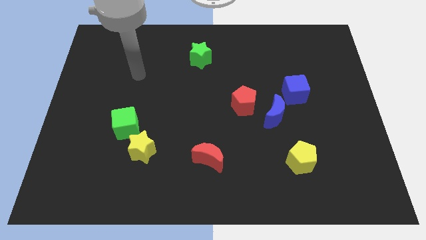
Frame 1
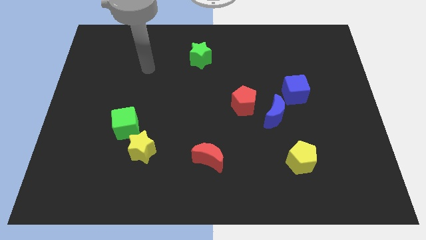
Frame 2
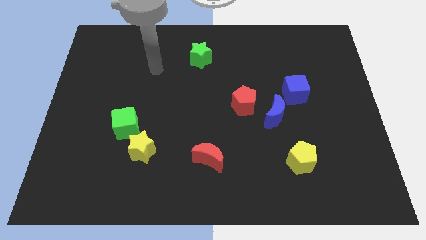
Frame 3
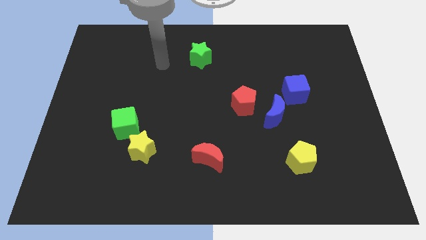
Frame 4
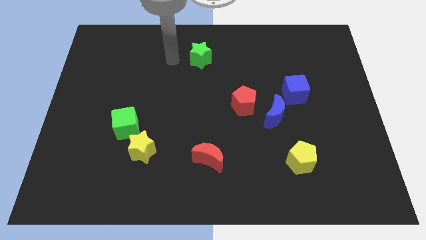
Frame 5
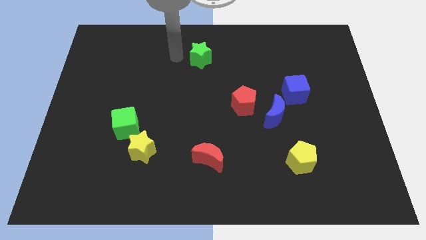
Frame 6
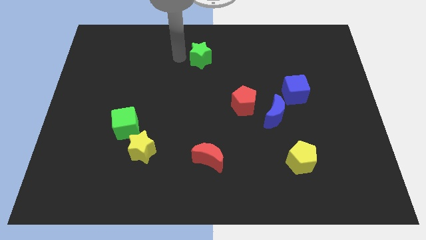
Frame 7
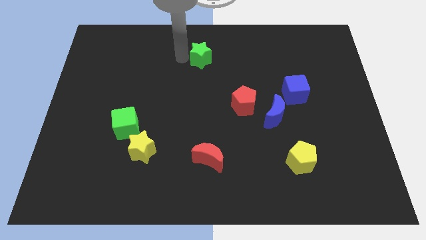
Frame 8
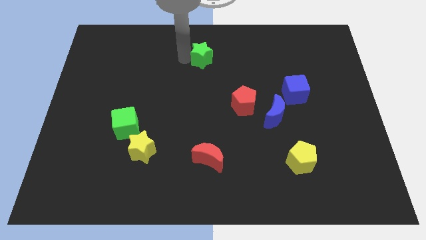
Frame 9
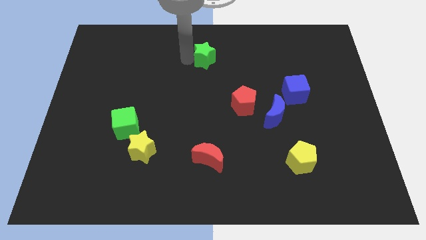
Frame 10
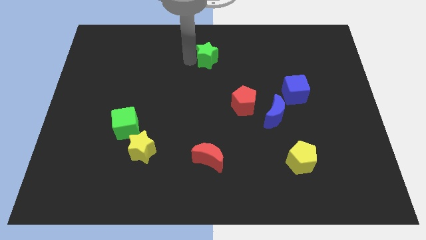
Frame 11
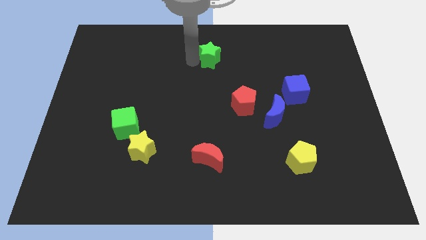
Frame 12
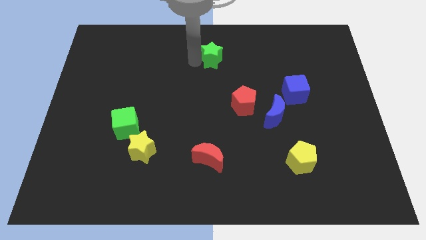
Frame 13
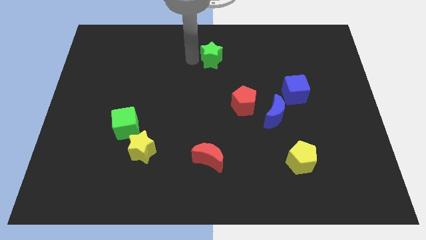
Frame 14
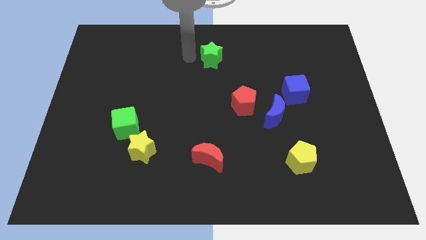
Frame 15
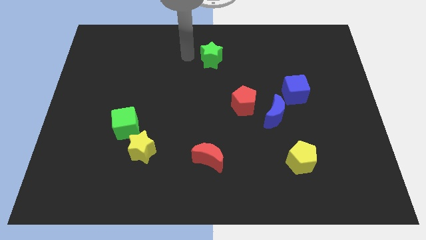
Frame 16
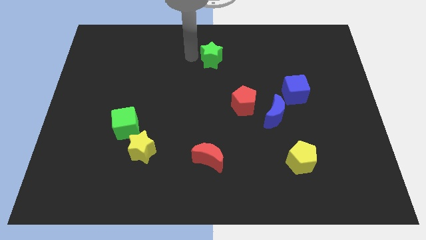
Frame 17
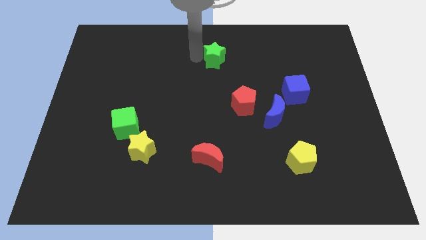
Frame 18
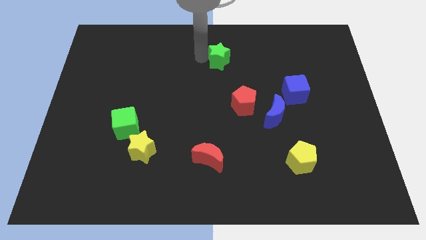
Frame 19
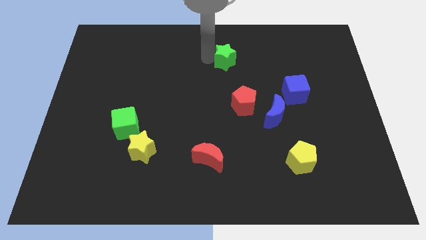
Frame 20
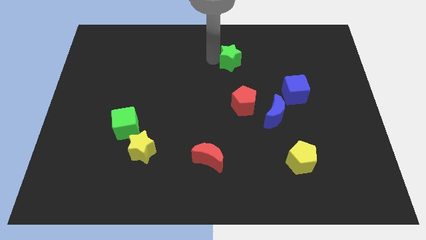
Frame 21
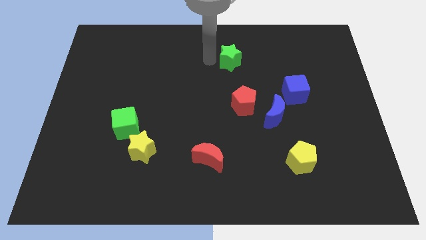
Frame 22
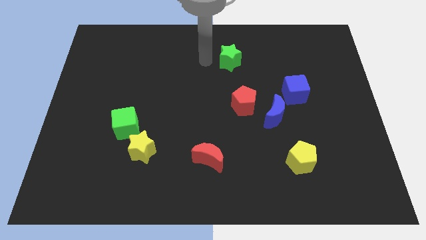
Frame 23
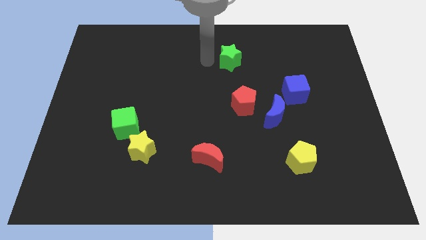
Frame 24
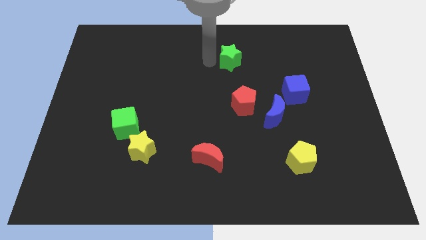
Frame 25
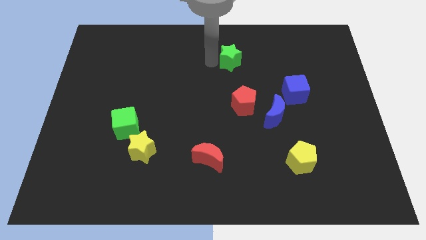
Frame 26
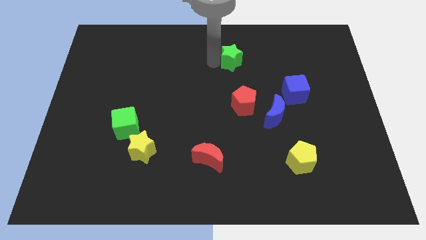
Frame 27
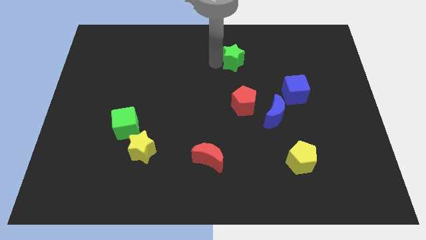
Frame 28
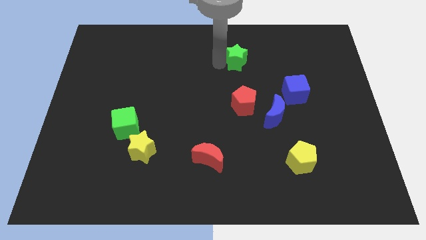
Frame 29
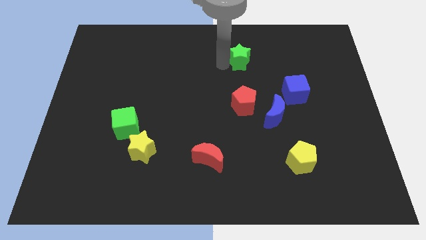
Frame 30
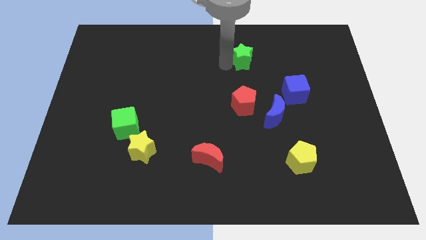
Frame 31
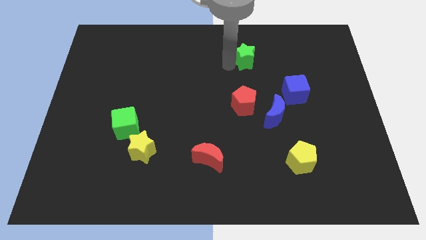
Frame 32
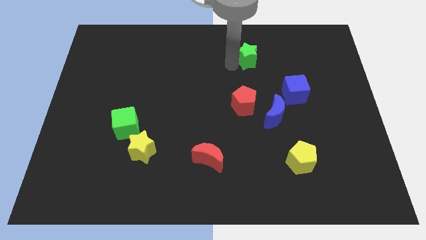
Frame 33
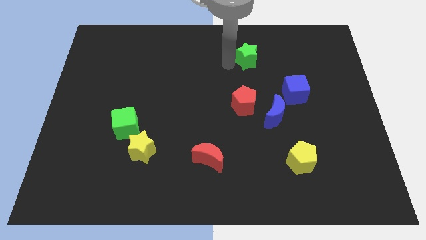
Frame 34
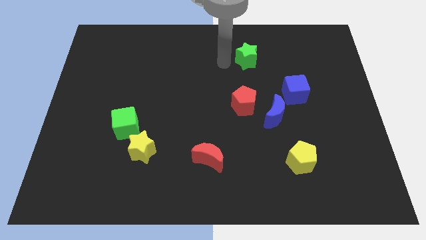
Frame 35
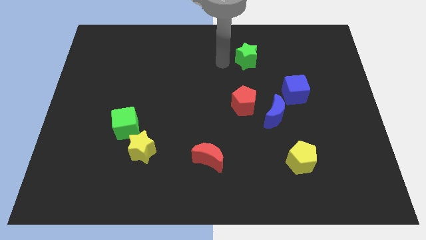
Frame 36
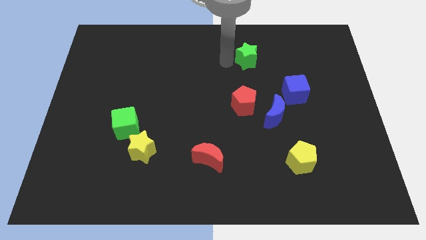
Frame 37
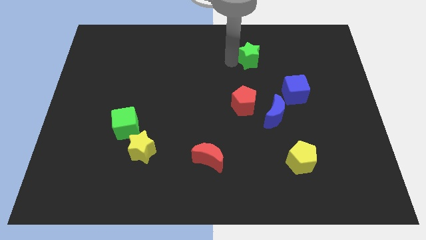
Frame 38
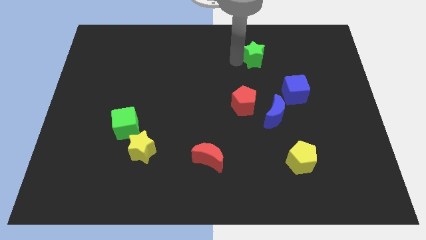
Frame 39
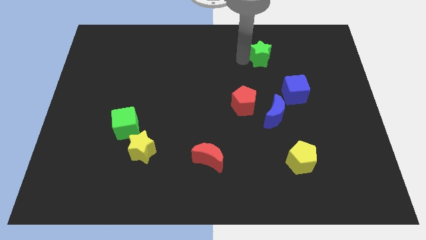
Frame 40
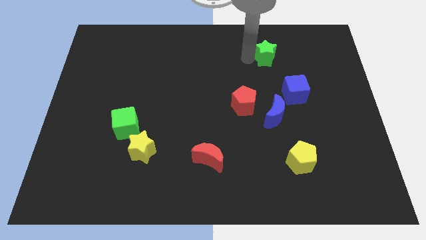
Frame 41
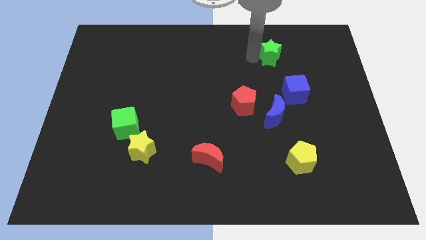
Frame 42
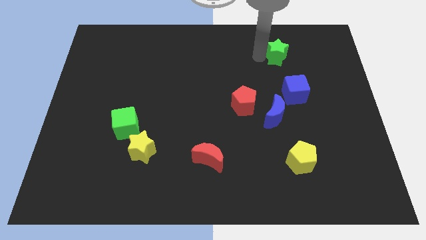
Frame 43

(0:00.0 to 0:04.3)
slide the green star right

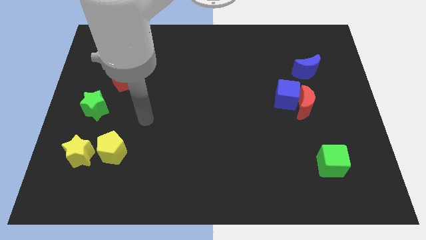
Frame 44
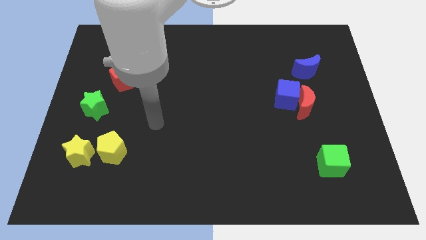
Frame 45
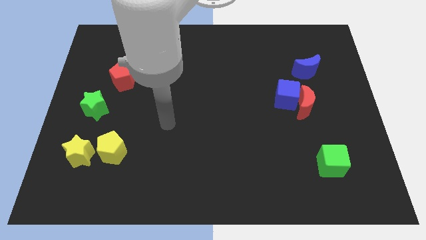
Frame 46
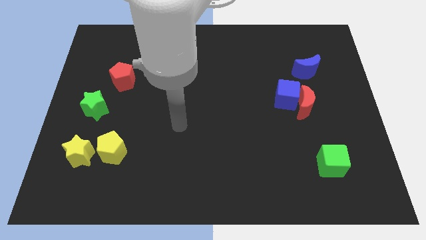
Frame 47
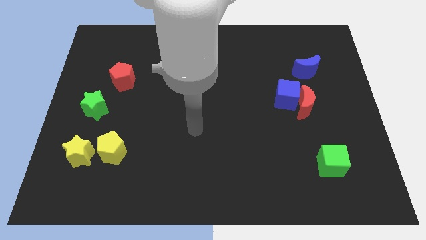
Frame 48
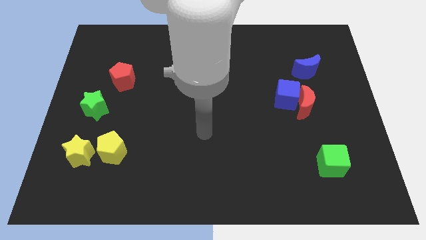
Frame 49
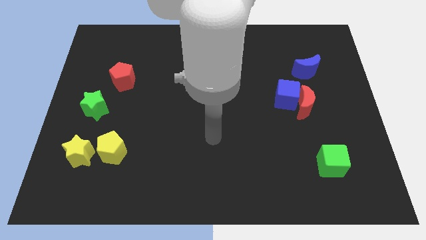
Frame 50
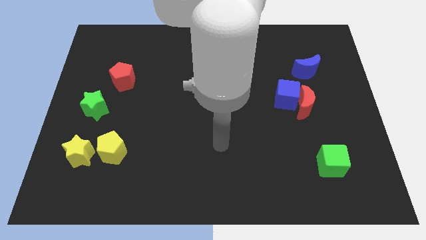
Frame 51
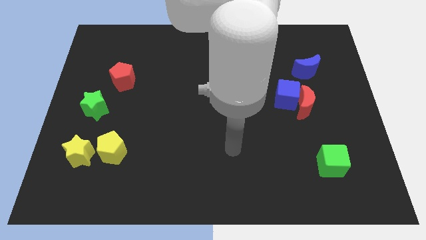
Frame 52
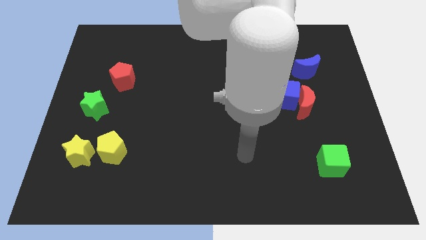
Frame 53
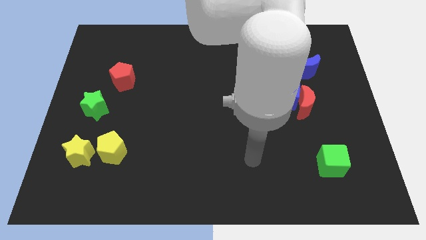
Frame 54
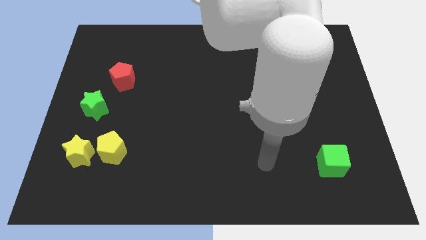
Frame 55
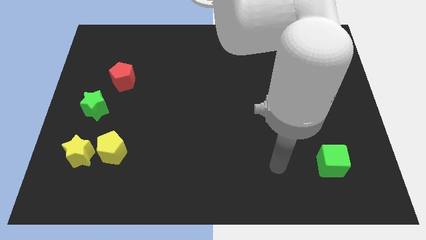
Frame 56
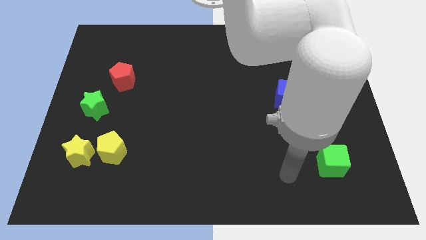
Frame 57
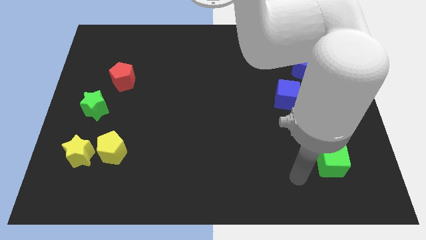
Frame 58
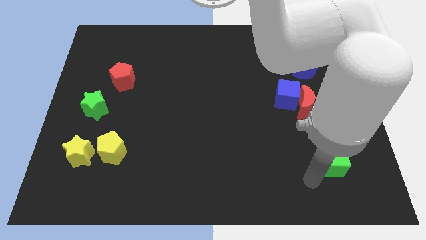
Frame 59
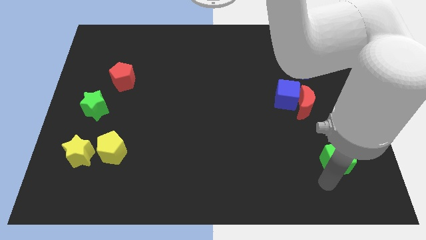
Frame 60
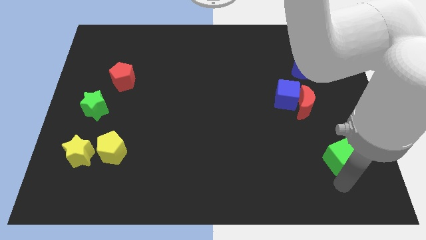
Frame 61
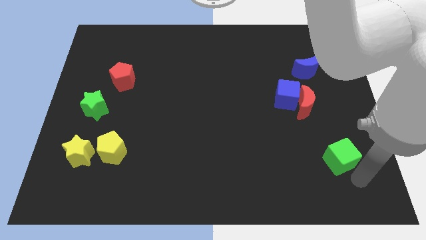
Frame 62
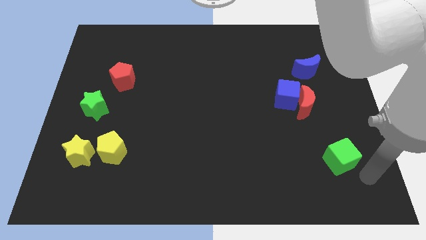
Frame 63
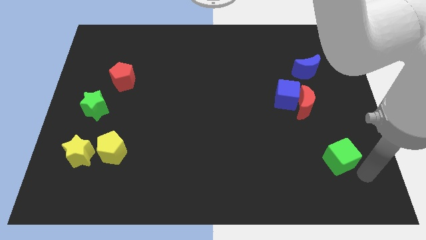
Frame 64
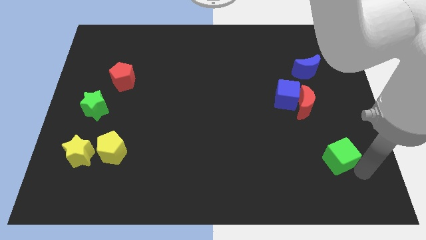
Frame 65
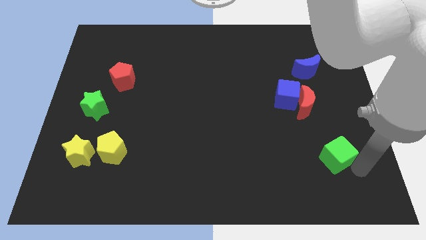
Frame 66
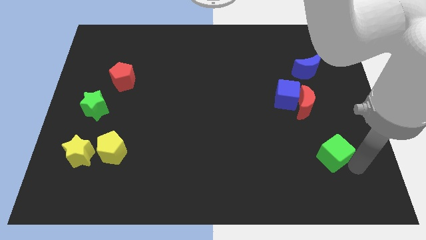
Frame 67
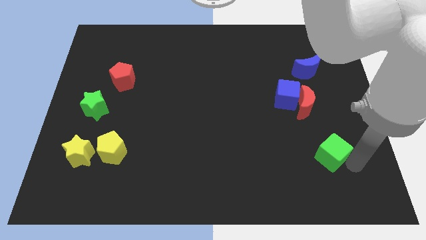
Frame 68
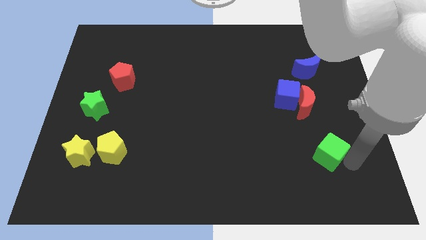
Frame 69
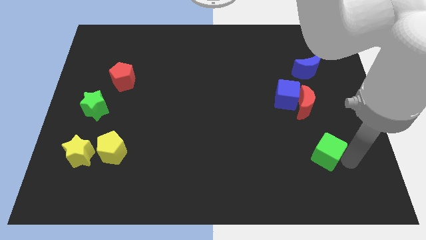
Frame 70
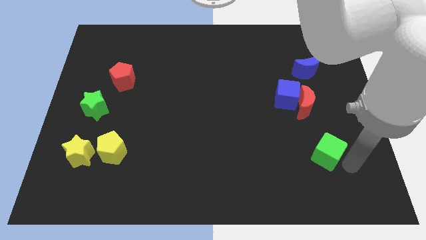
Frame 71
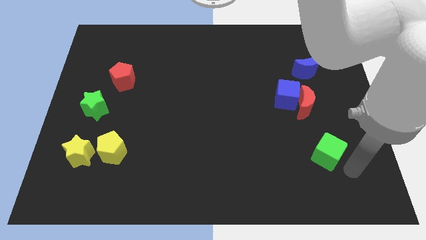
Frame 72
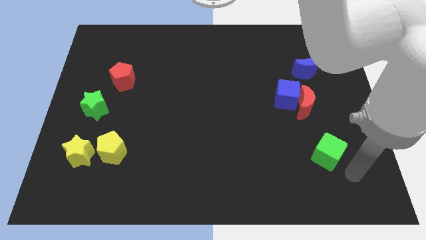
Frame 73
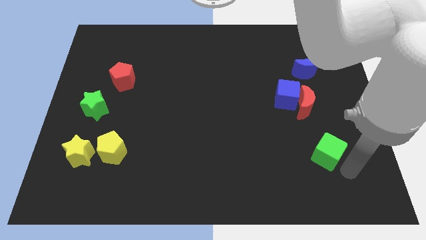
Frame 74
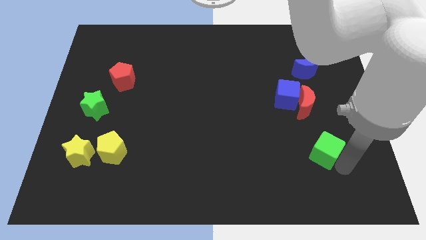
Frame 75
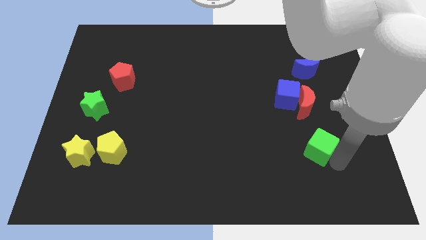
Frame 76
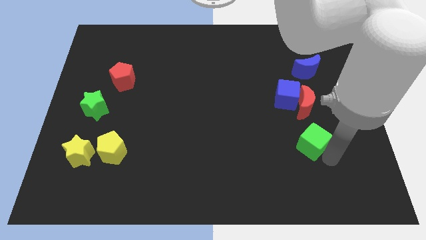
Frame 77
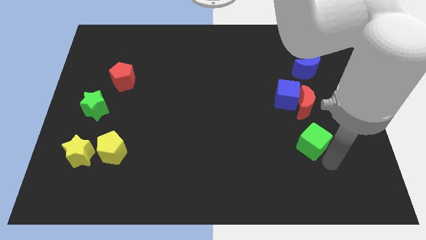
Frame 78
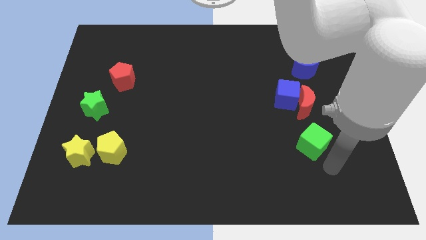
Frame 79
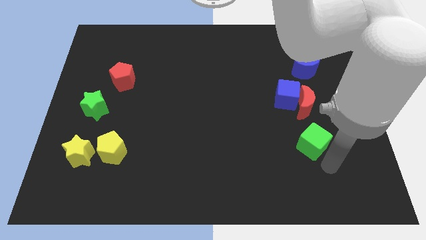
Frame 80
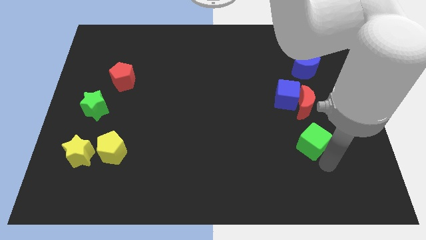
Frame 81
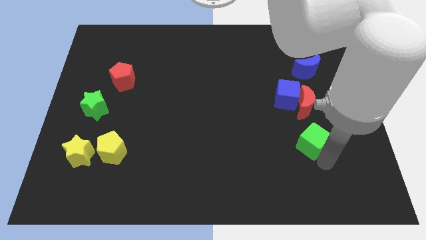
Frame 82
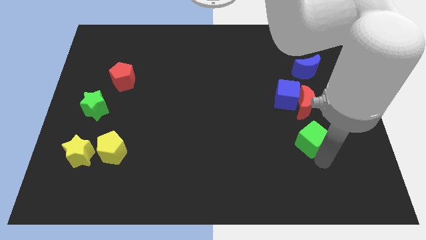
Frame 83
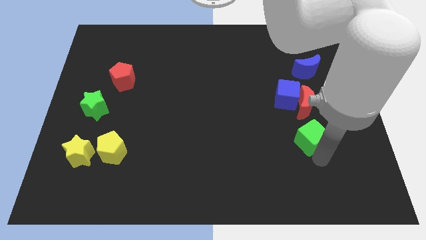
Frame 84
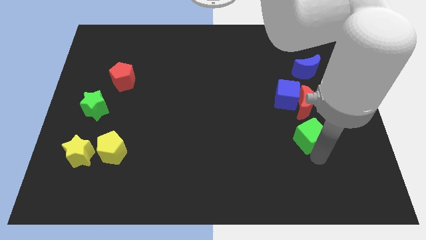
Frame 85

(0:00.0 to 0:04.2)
slide the green cube somewhat upwards and then left
